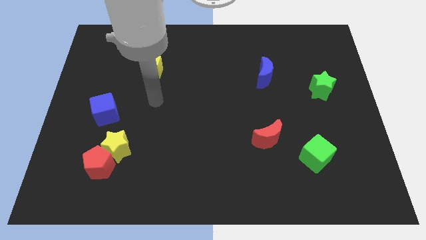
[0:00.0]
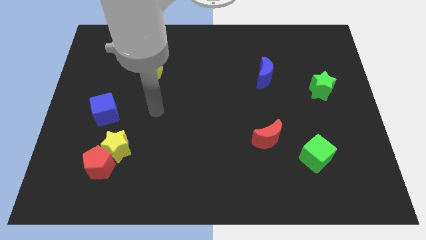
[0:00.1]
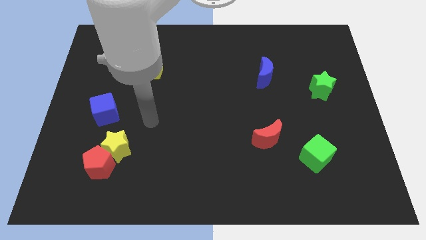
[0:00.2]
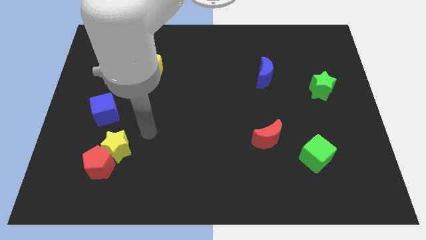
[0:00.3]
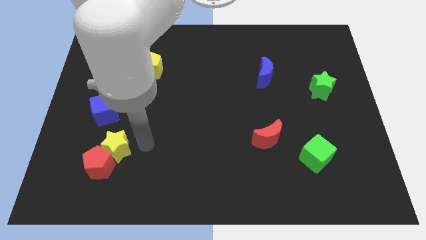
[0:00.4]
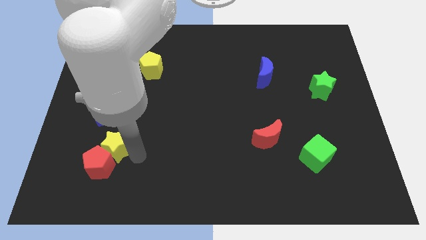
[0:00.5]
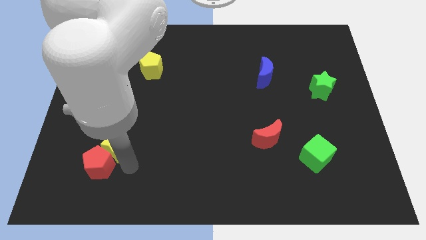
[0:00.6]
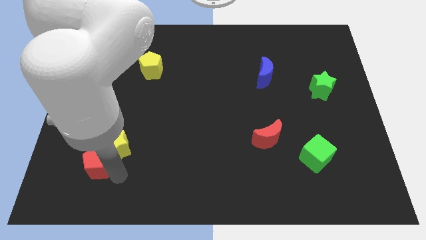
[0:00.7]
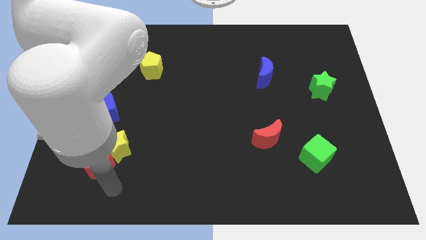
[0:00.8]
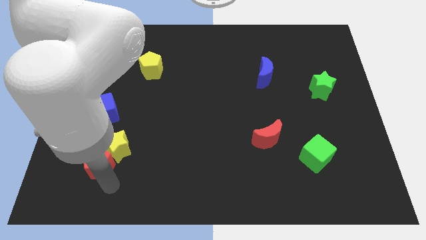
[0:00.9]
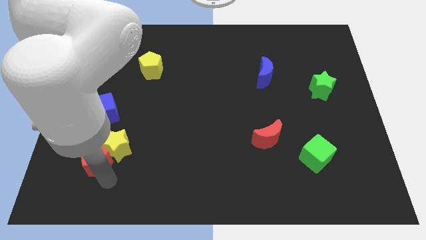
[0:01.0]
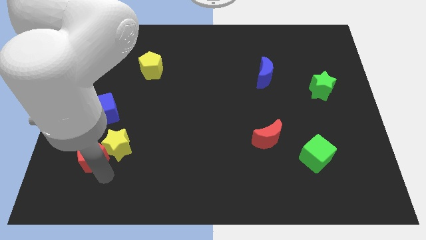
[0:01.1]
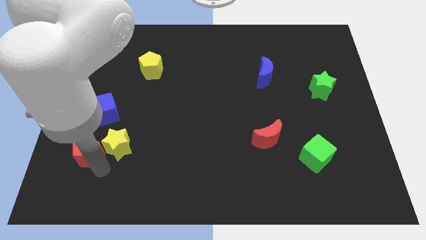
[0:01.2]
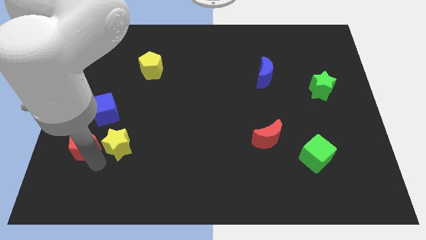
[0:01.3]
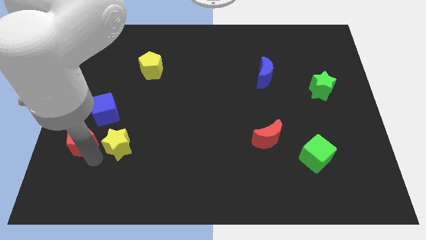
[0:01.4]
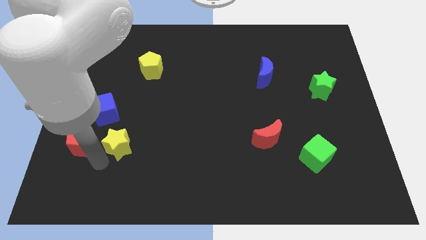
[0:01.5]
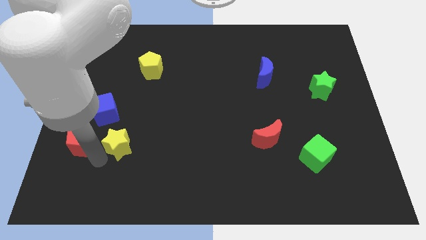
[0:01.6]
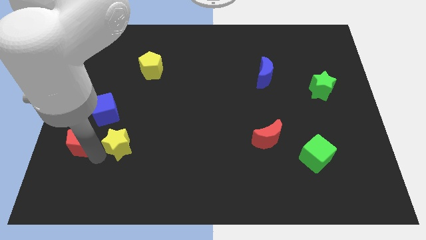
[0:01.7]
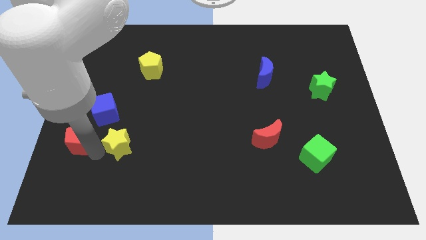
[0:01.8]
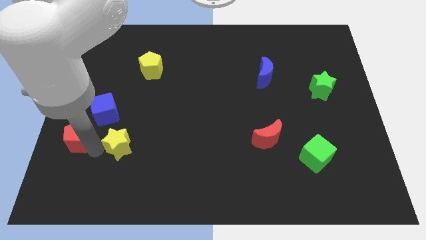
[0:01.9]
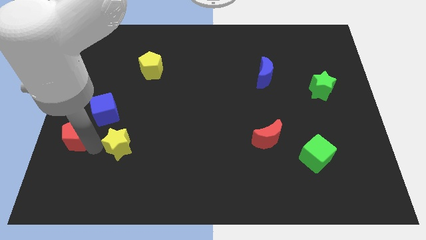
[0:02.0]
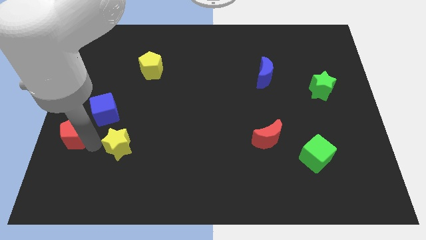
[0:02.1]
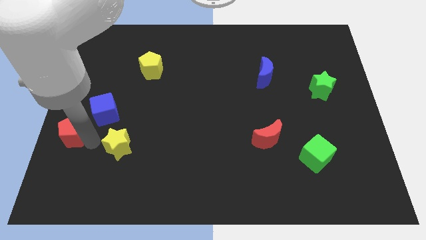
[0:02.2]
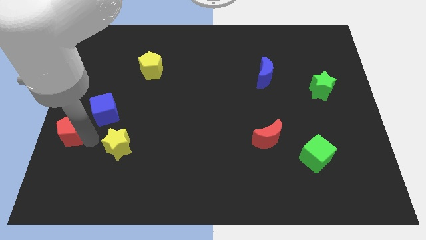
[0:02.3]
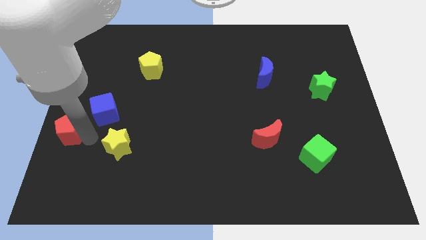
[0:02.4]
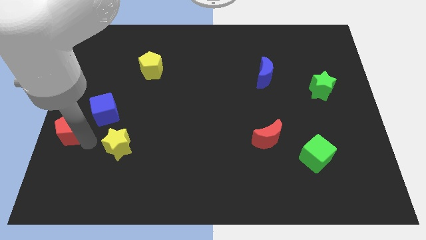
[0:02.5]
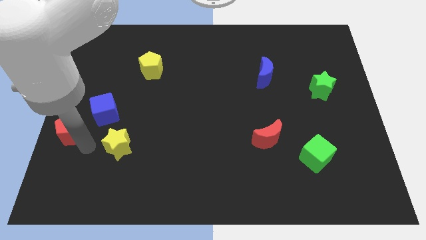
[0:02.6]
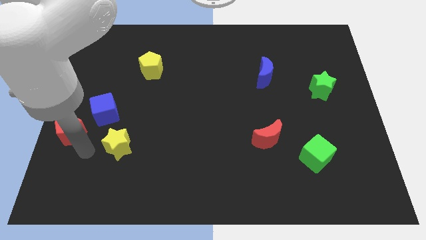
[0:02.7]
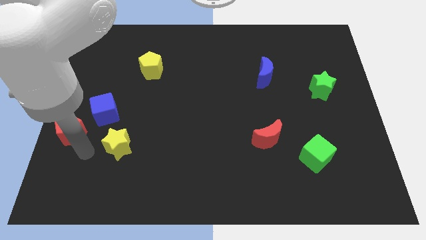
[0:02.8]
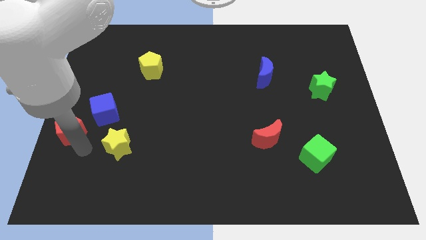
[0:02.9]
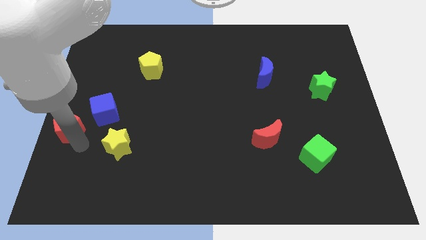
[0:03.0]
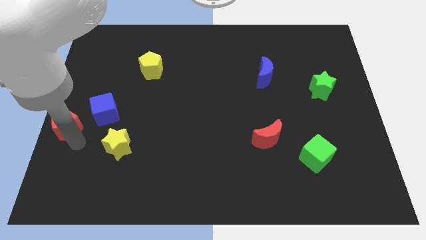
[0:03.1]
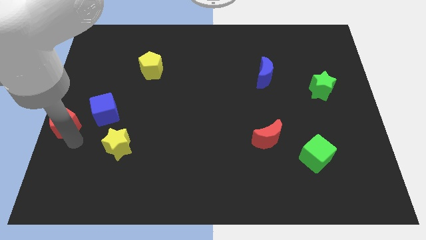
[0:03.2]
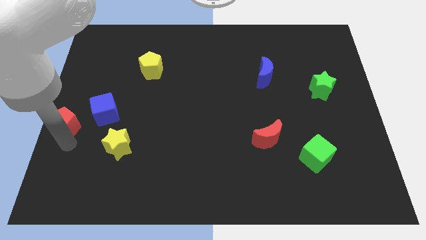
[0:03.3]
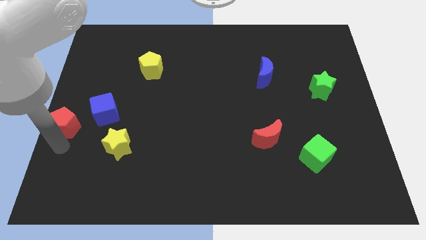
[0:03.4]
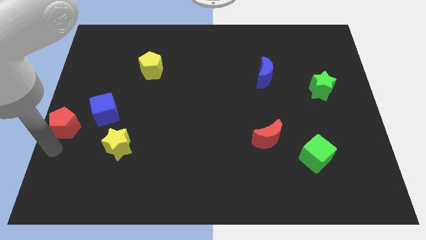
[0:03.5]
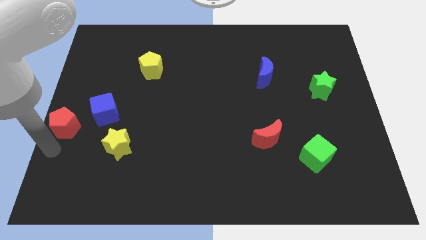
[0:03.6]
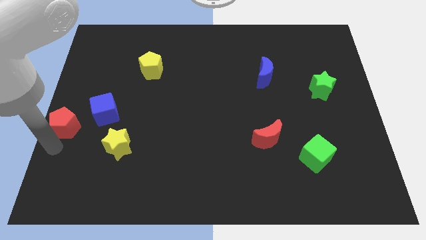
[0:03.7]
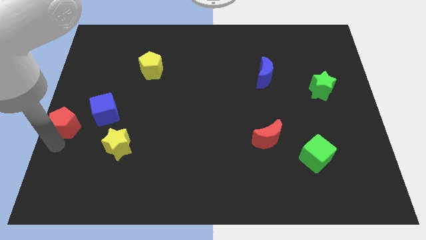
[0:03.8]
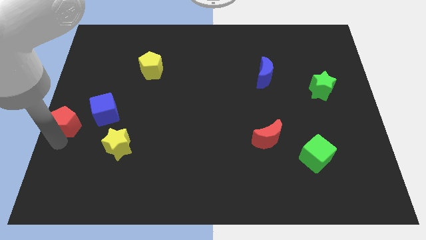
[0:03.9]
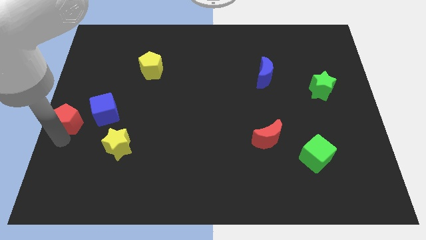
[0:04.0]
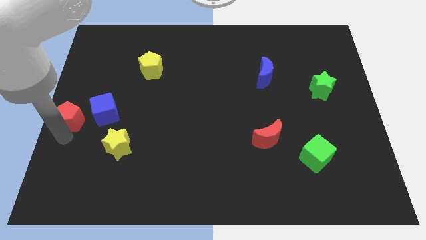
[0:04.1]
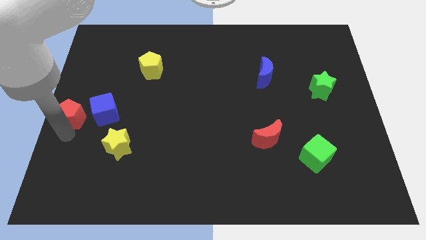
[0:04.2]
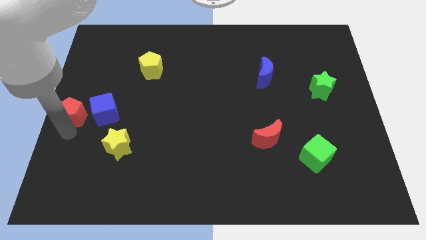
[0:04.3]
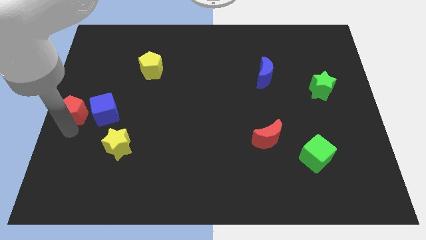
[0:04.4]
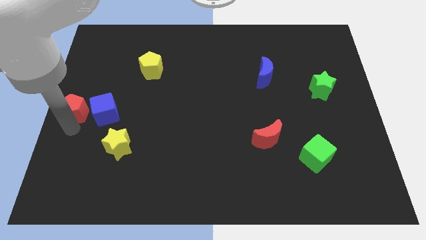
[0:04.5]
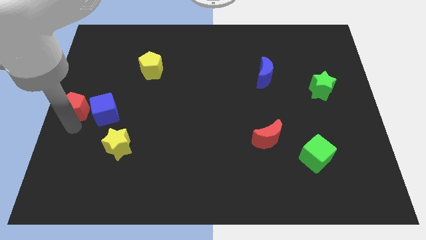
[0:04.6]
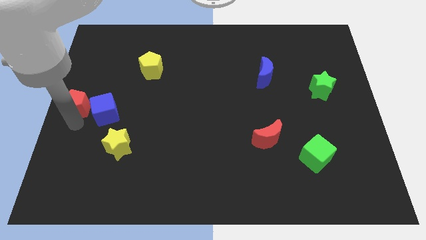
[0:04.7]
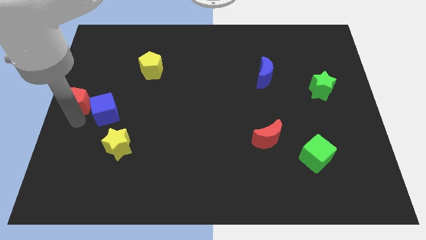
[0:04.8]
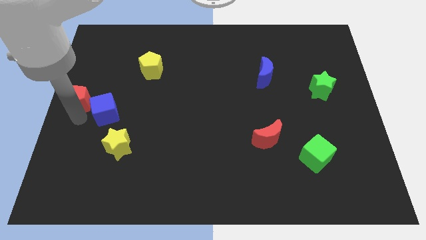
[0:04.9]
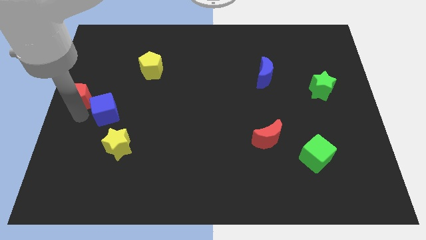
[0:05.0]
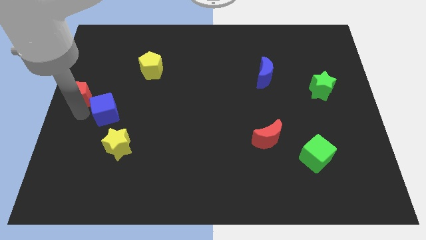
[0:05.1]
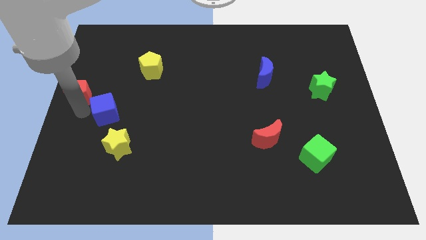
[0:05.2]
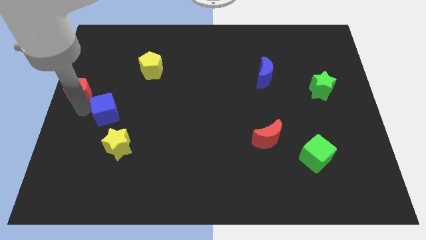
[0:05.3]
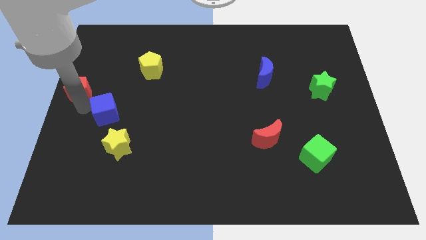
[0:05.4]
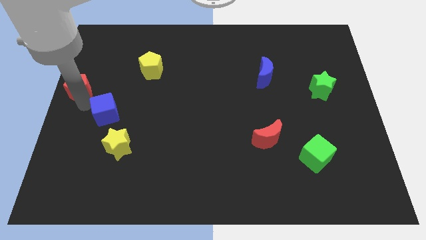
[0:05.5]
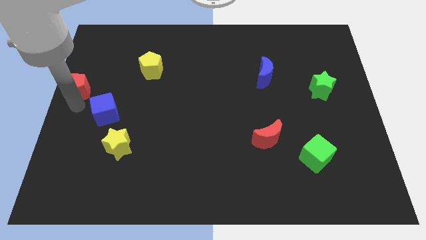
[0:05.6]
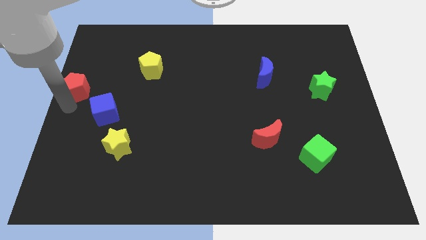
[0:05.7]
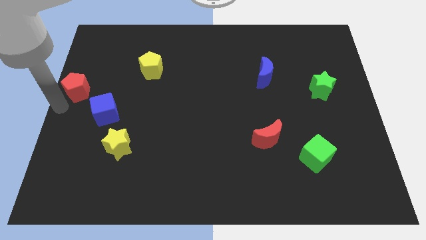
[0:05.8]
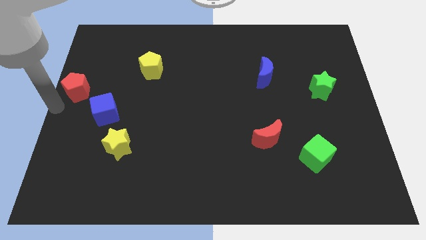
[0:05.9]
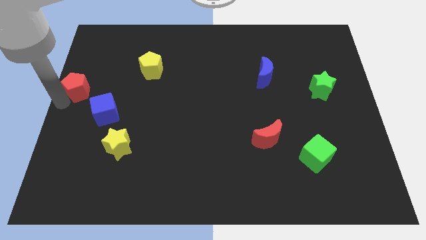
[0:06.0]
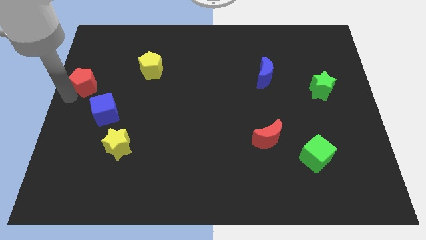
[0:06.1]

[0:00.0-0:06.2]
move the red pentagon upwards

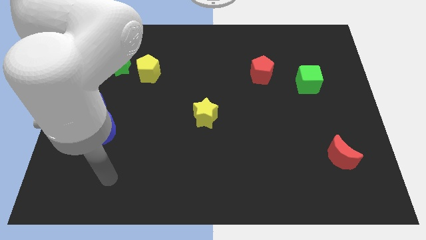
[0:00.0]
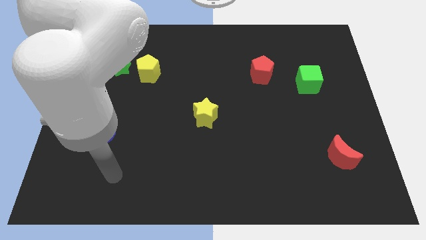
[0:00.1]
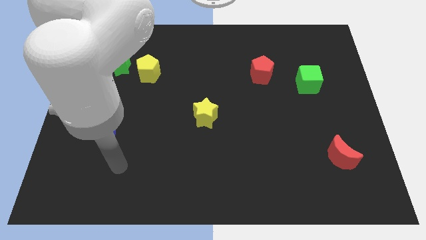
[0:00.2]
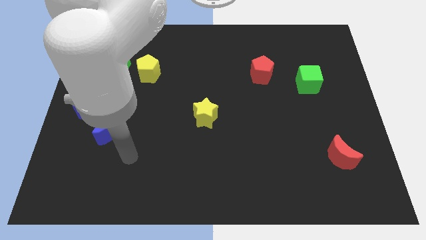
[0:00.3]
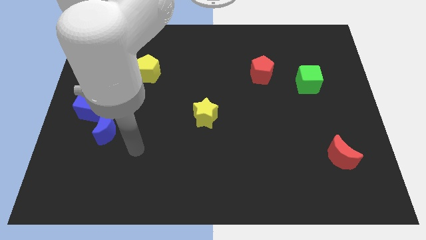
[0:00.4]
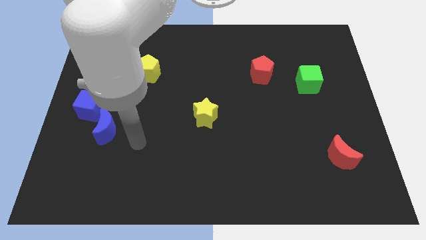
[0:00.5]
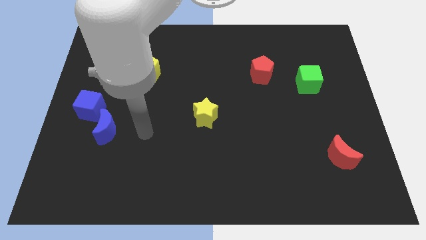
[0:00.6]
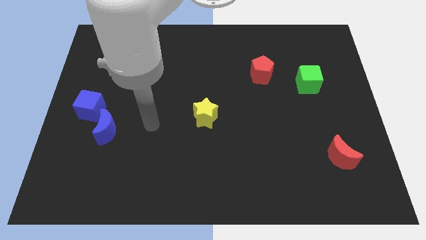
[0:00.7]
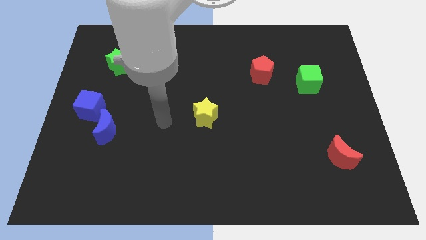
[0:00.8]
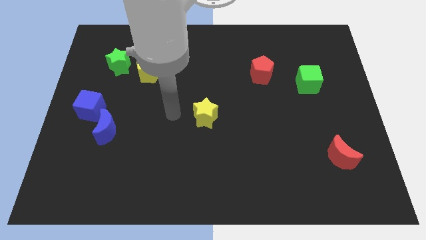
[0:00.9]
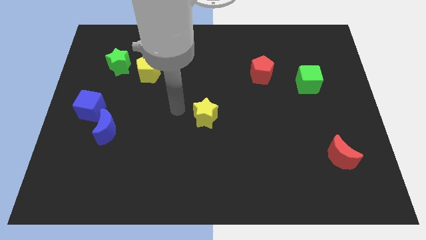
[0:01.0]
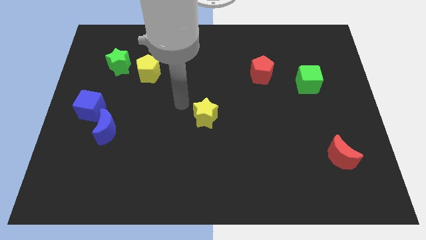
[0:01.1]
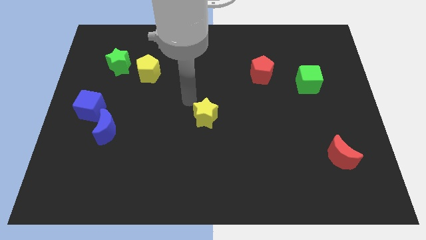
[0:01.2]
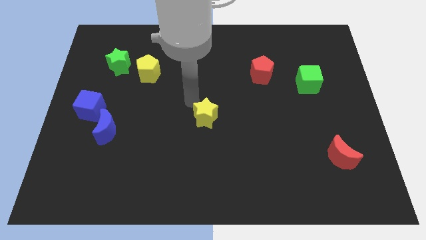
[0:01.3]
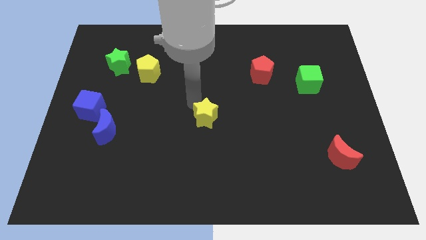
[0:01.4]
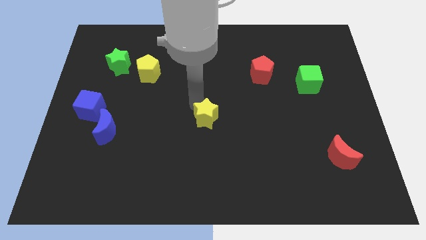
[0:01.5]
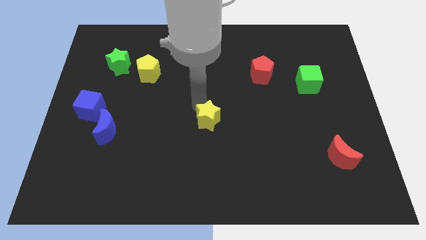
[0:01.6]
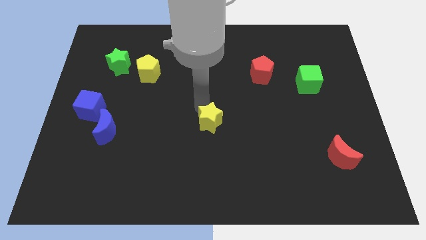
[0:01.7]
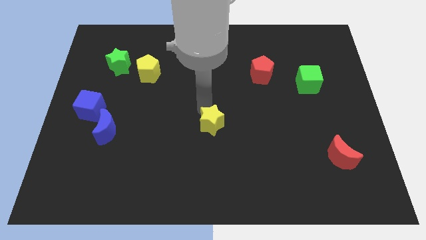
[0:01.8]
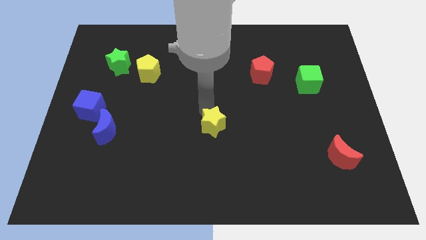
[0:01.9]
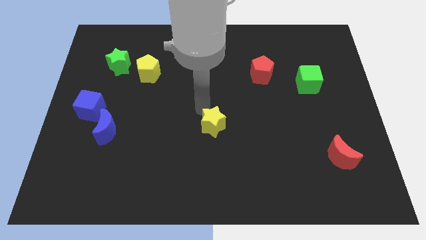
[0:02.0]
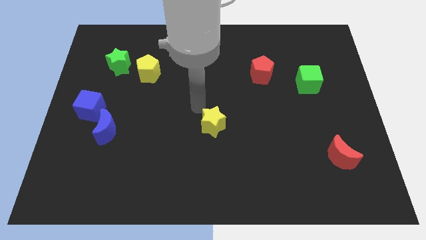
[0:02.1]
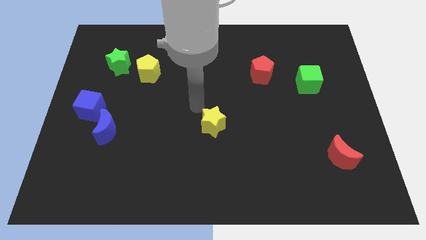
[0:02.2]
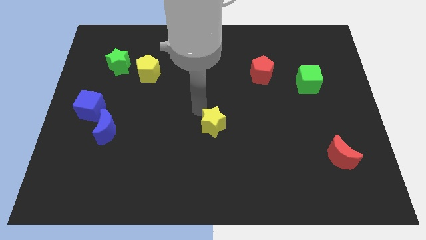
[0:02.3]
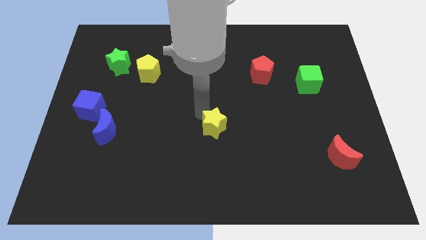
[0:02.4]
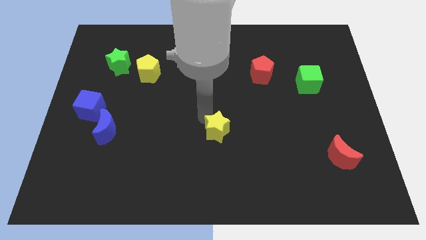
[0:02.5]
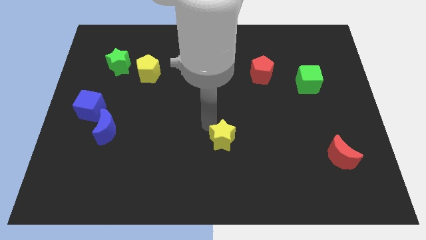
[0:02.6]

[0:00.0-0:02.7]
push the yellow star diagonally downwards and right somewhat
